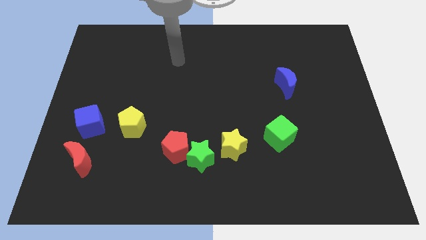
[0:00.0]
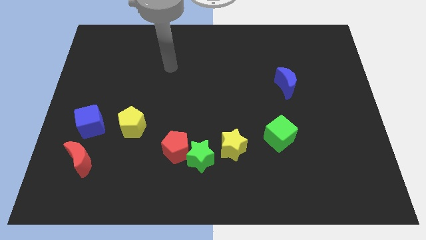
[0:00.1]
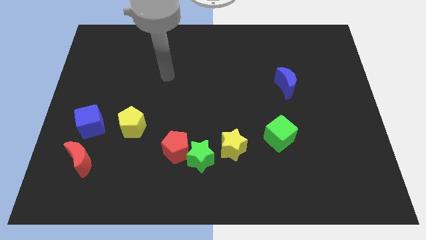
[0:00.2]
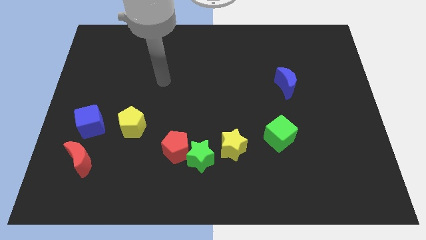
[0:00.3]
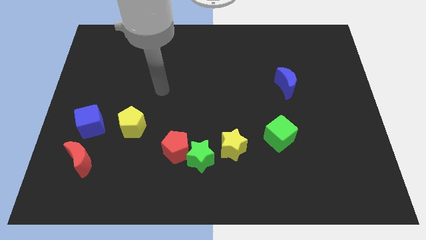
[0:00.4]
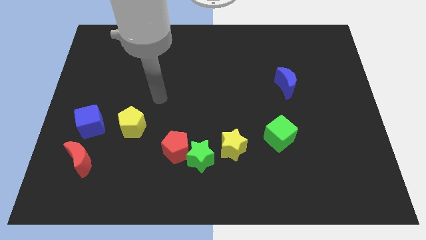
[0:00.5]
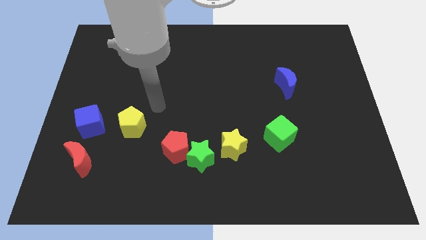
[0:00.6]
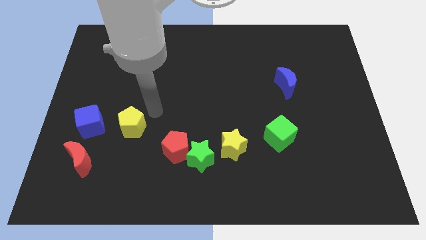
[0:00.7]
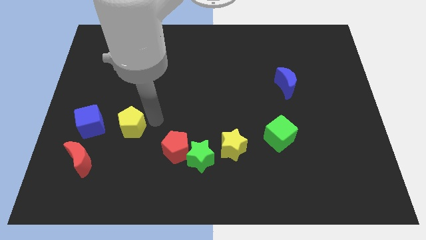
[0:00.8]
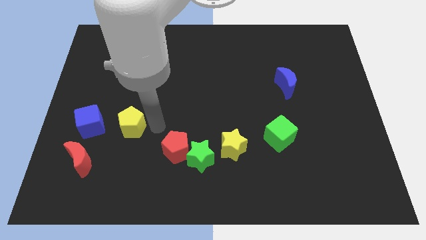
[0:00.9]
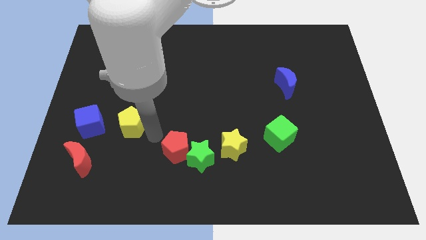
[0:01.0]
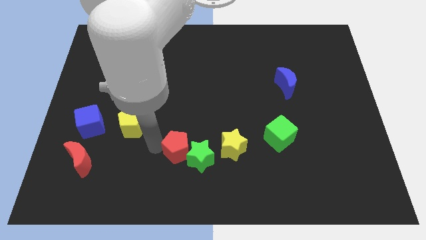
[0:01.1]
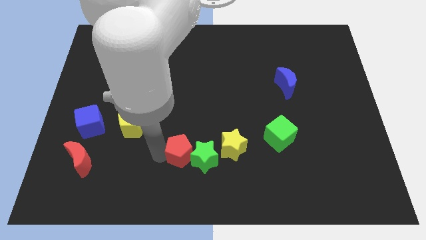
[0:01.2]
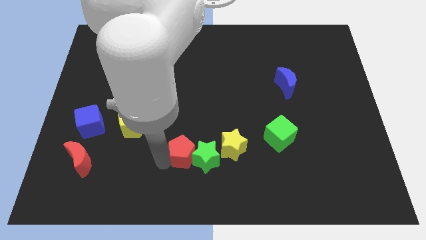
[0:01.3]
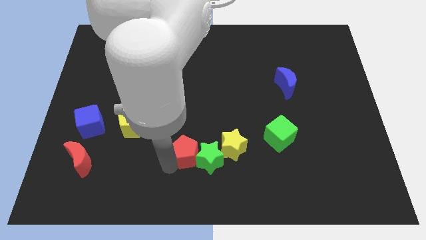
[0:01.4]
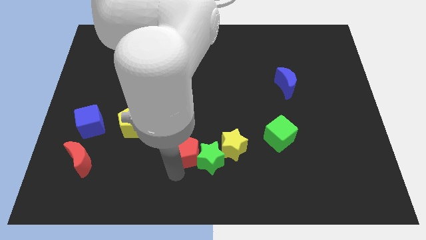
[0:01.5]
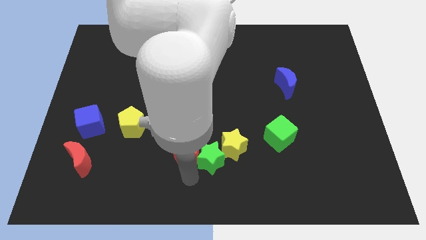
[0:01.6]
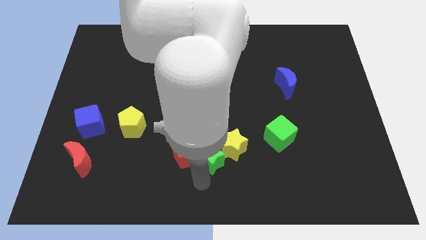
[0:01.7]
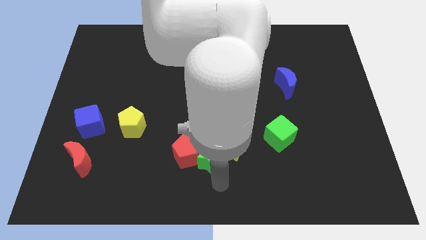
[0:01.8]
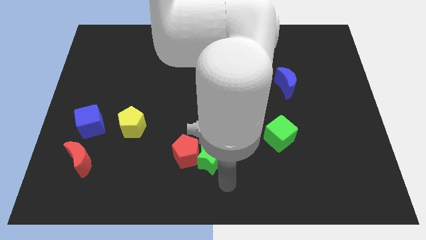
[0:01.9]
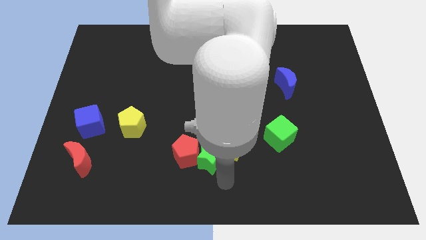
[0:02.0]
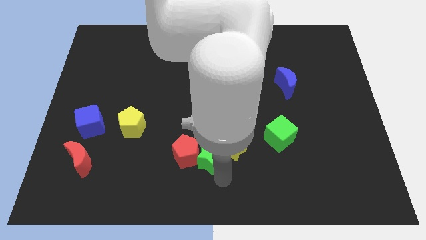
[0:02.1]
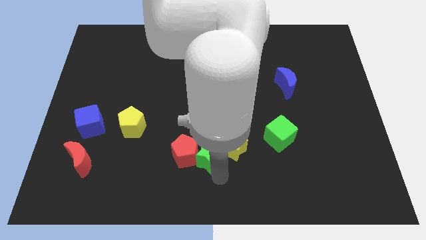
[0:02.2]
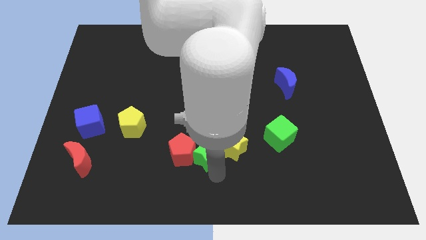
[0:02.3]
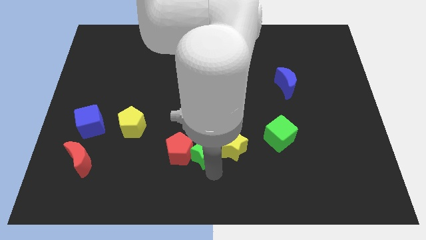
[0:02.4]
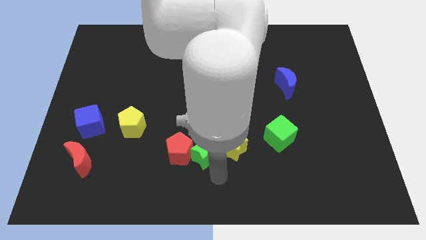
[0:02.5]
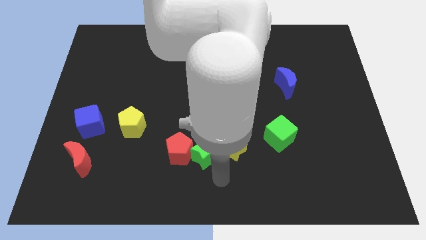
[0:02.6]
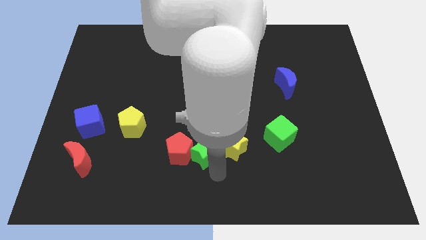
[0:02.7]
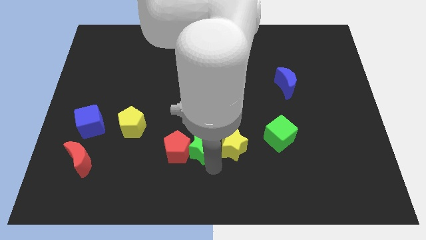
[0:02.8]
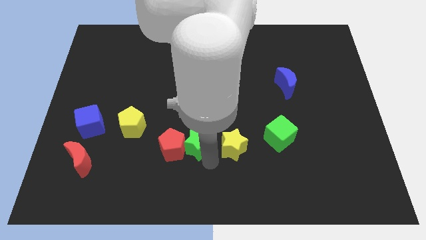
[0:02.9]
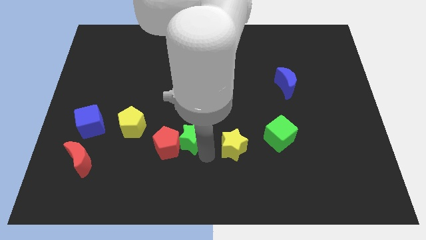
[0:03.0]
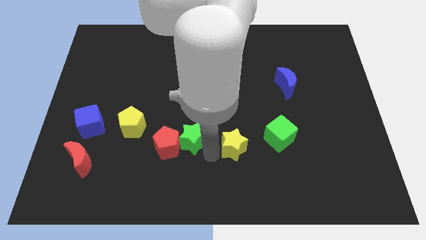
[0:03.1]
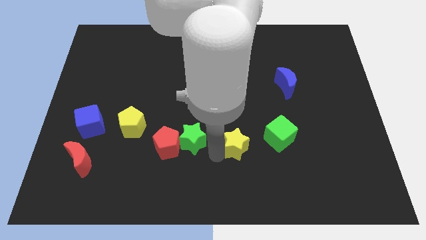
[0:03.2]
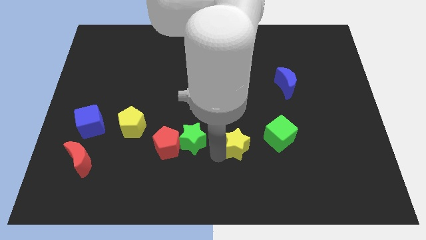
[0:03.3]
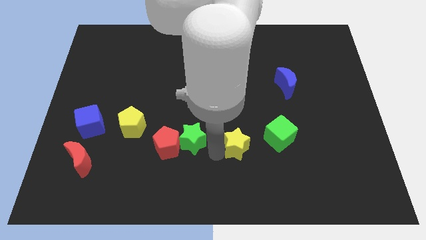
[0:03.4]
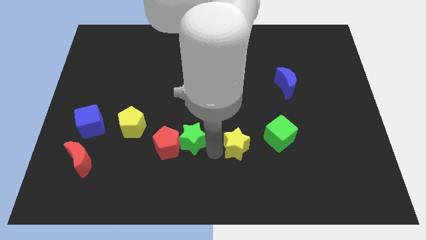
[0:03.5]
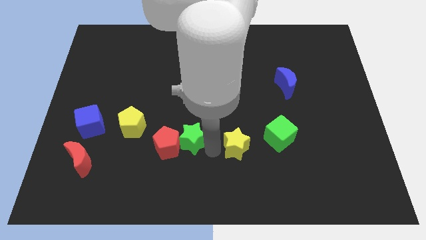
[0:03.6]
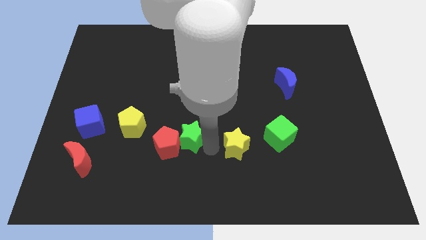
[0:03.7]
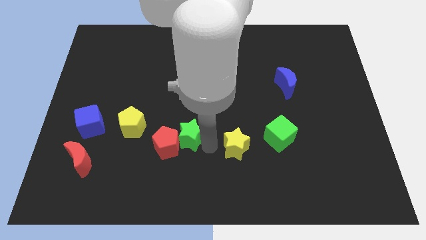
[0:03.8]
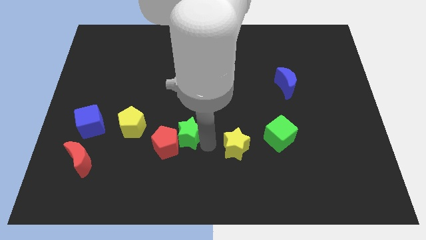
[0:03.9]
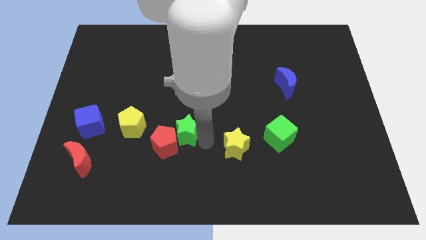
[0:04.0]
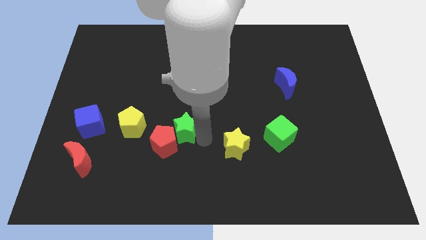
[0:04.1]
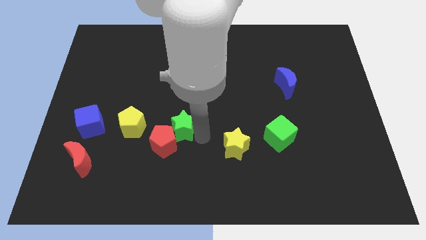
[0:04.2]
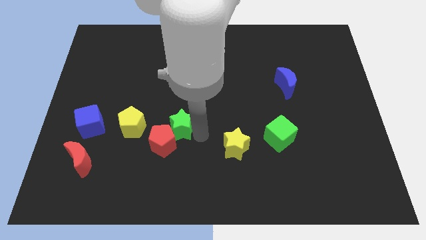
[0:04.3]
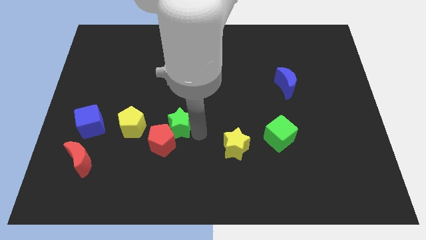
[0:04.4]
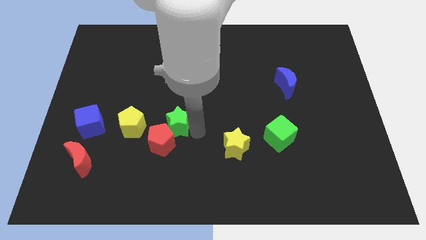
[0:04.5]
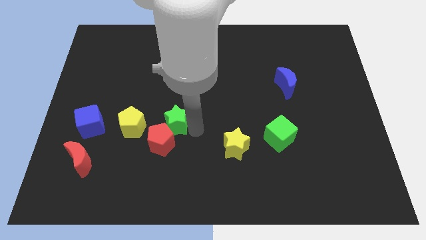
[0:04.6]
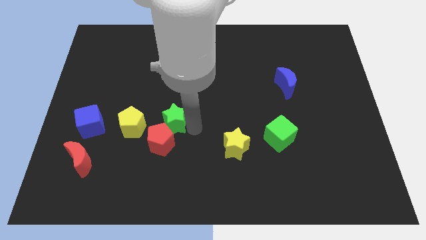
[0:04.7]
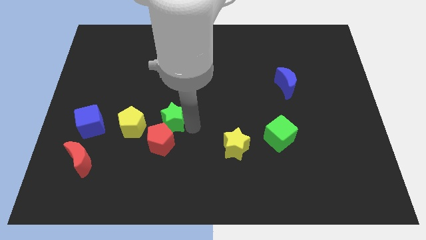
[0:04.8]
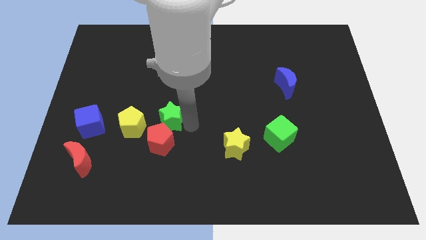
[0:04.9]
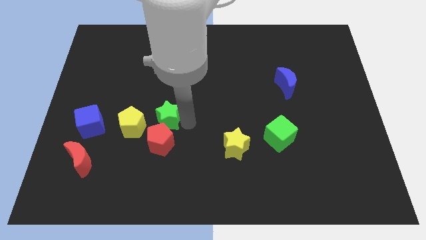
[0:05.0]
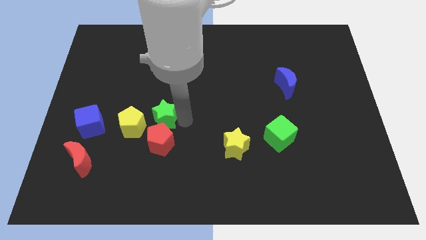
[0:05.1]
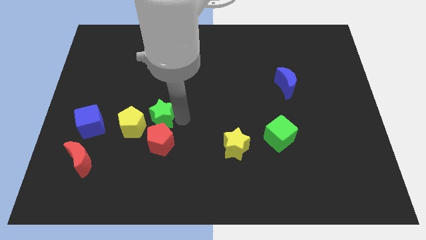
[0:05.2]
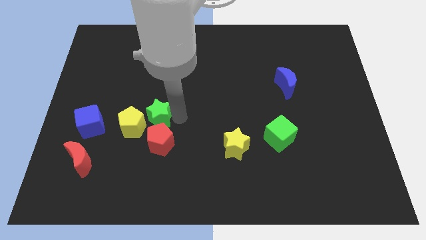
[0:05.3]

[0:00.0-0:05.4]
slide the green star towards the yellow pentagon

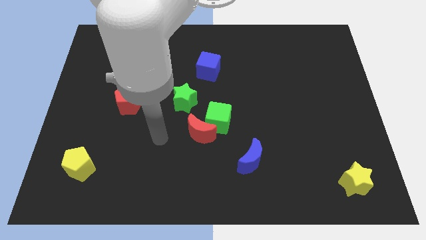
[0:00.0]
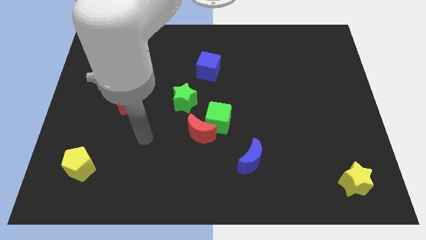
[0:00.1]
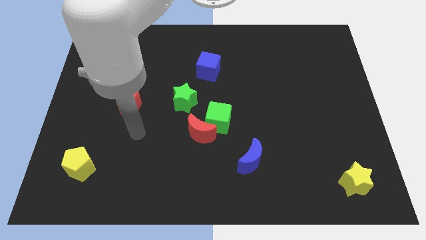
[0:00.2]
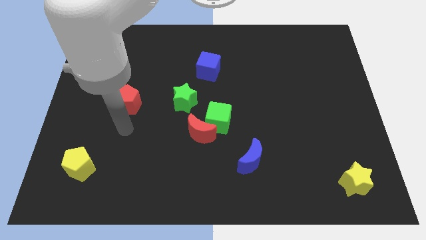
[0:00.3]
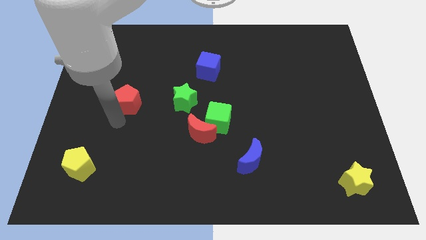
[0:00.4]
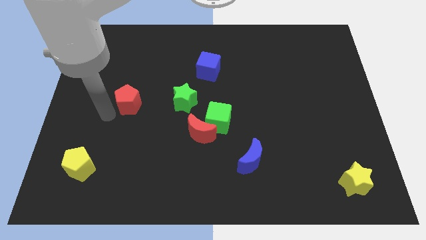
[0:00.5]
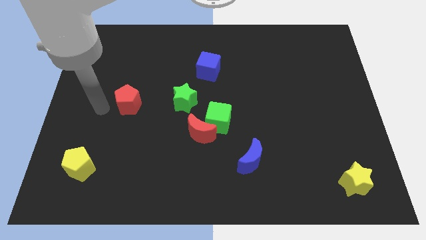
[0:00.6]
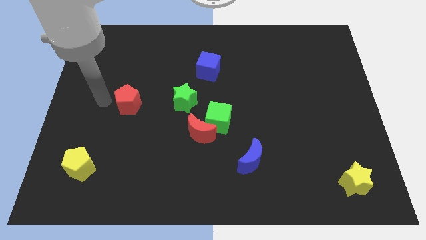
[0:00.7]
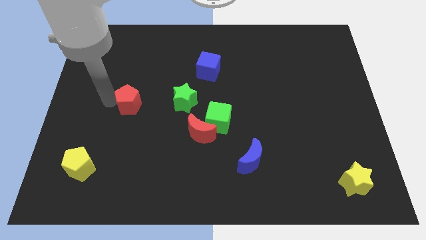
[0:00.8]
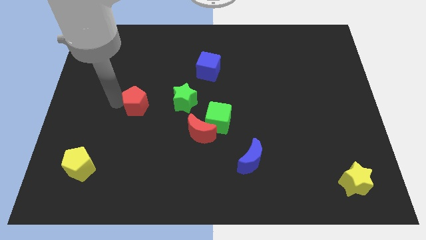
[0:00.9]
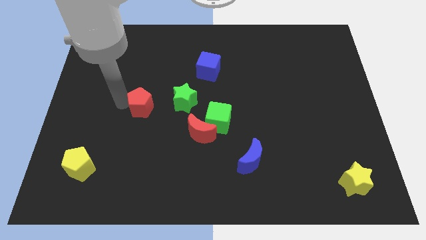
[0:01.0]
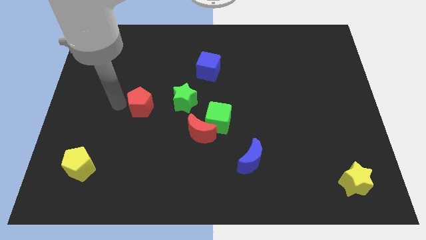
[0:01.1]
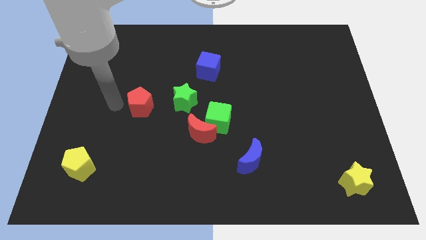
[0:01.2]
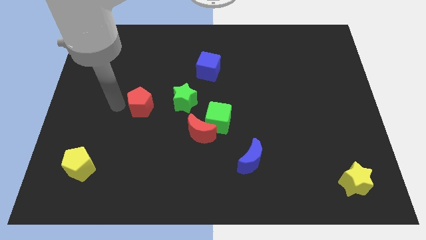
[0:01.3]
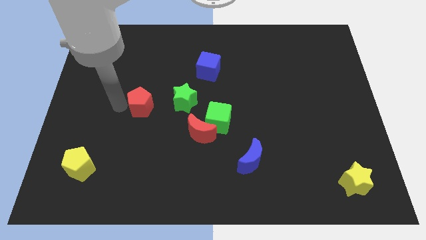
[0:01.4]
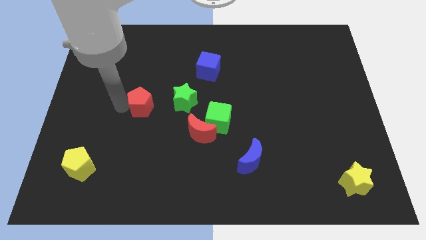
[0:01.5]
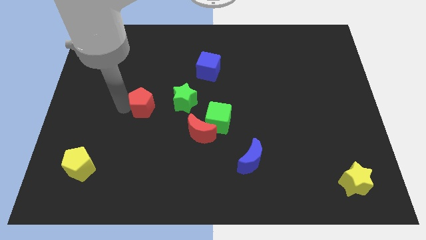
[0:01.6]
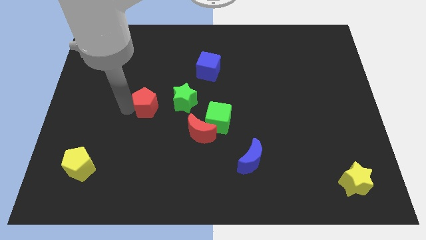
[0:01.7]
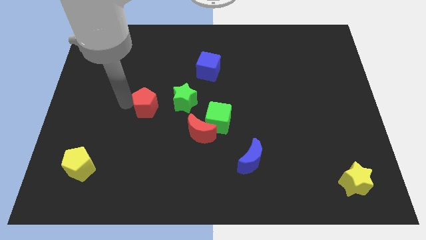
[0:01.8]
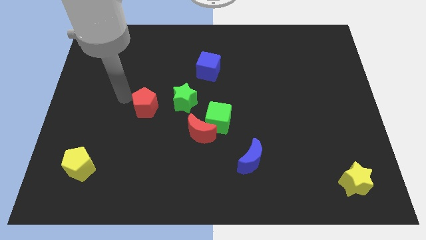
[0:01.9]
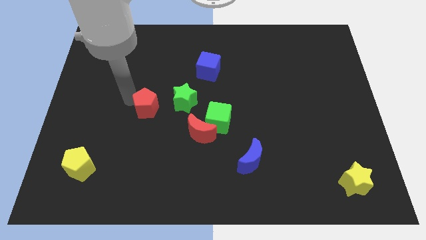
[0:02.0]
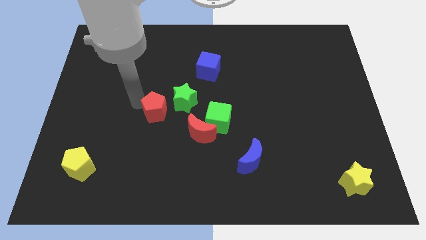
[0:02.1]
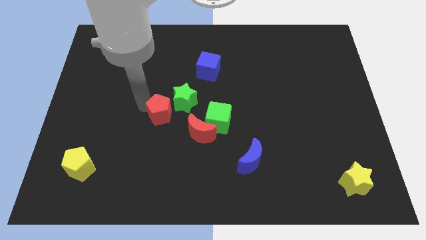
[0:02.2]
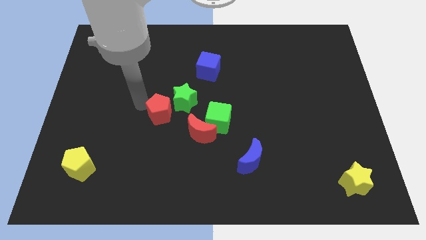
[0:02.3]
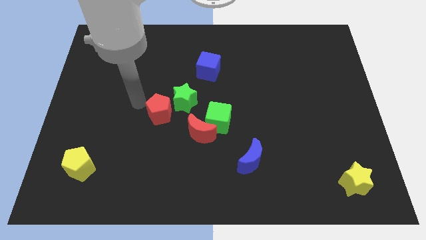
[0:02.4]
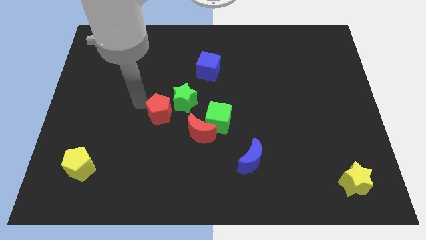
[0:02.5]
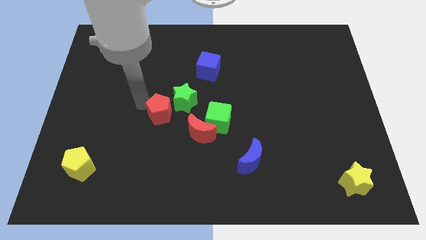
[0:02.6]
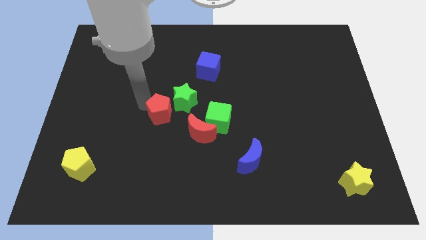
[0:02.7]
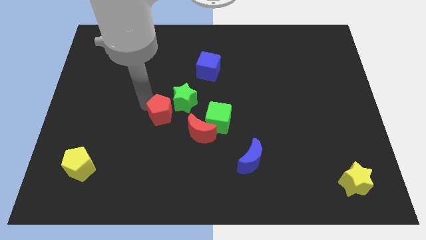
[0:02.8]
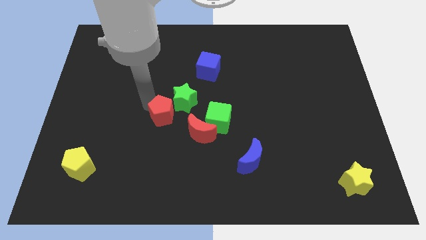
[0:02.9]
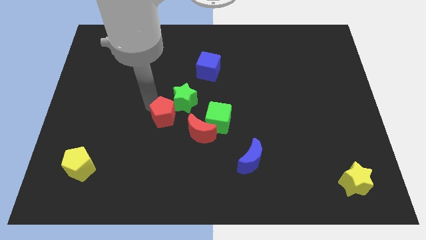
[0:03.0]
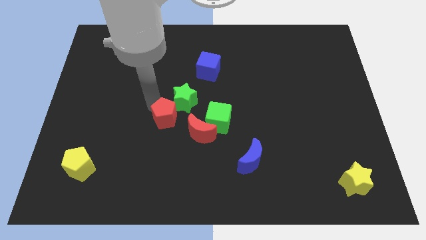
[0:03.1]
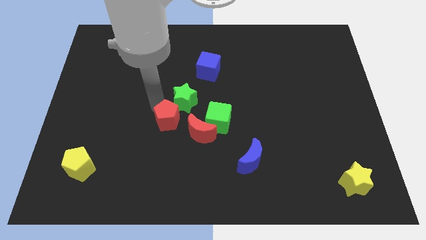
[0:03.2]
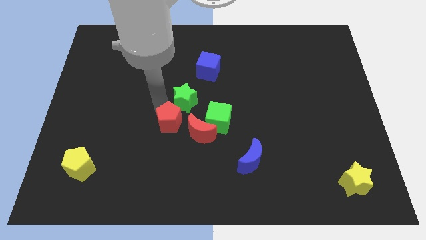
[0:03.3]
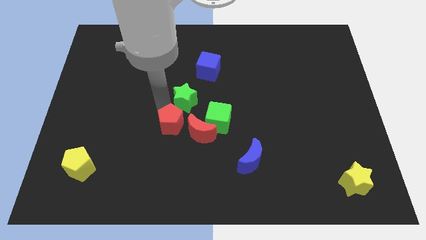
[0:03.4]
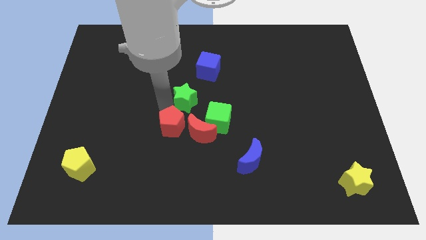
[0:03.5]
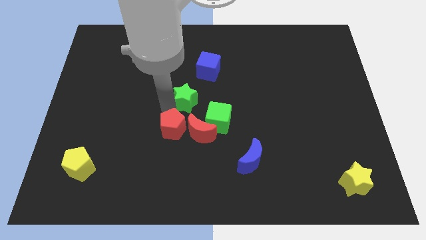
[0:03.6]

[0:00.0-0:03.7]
move the red pentagon next to the red moon
